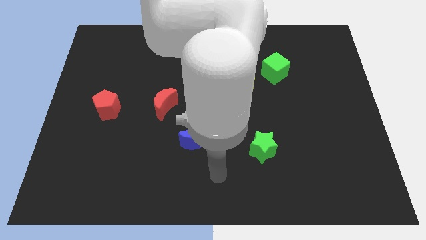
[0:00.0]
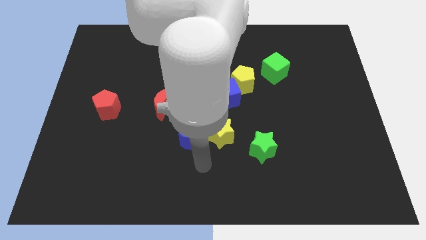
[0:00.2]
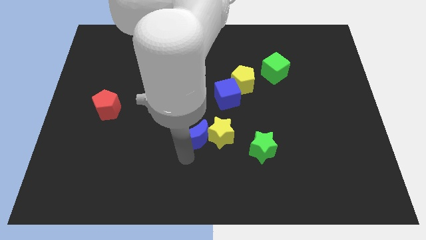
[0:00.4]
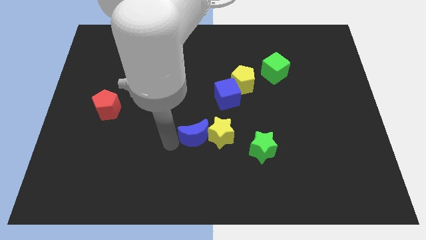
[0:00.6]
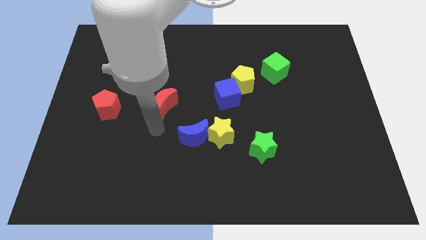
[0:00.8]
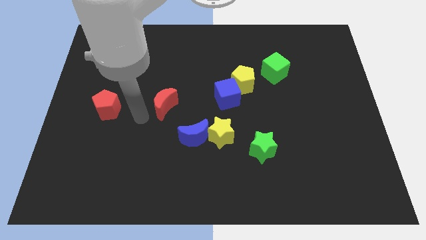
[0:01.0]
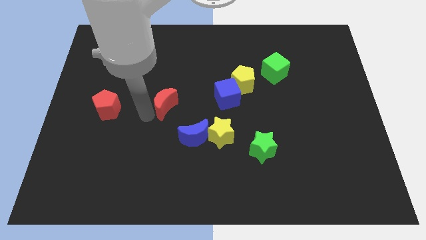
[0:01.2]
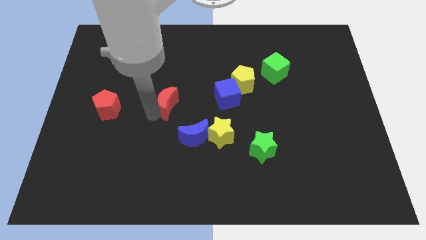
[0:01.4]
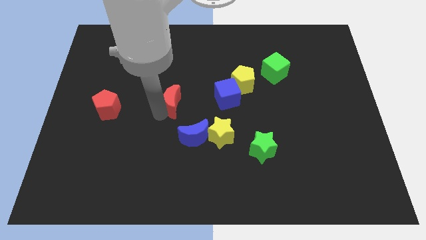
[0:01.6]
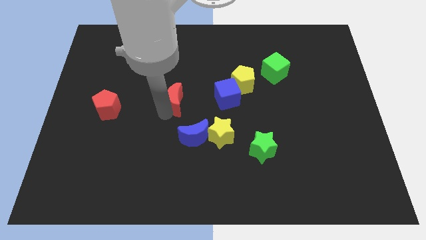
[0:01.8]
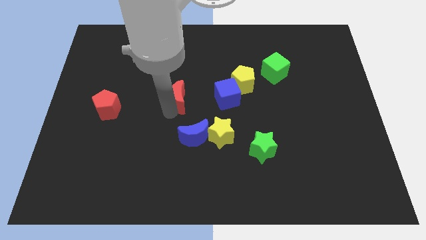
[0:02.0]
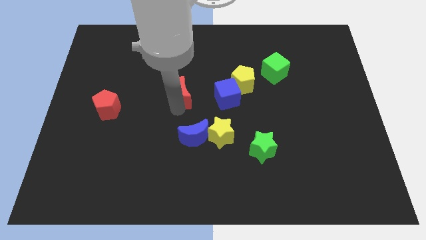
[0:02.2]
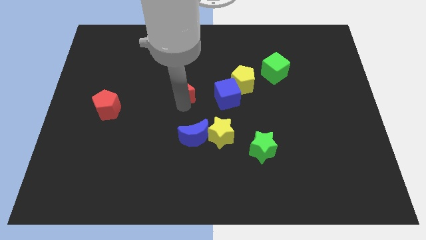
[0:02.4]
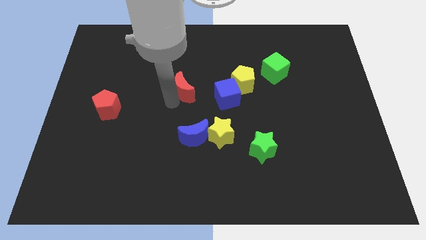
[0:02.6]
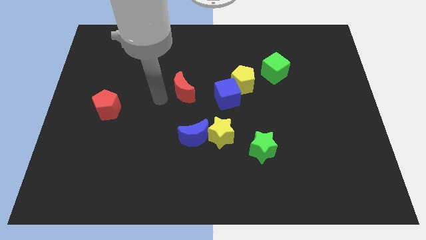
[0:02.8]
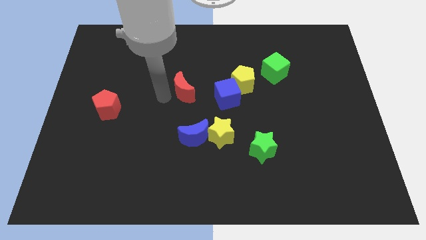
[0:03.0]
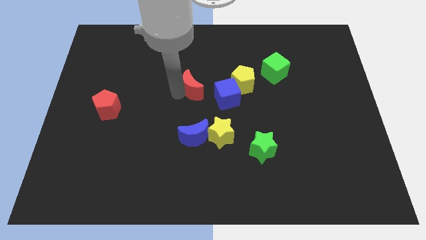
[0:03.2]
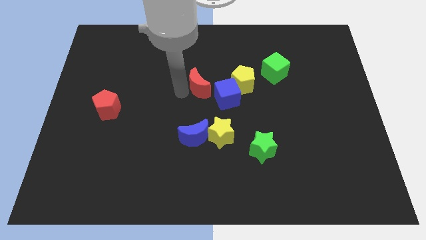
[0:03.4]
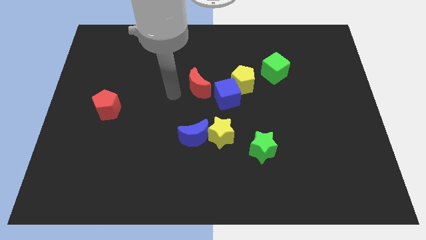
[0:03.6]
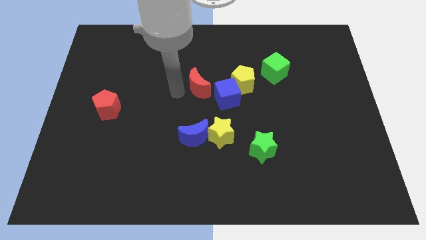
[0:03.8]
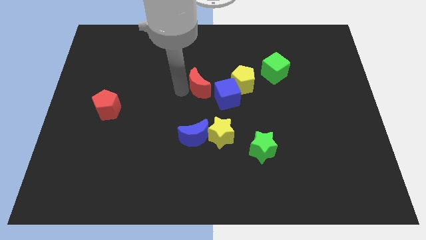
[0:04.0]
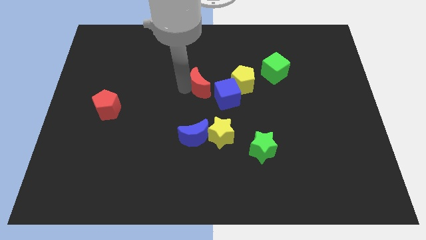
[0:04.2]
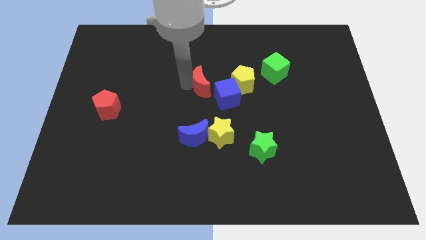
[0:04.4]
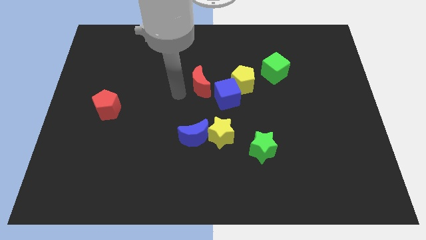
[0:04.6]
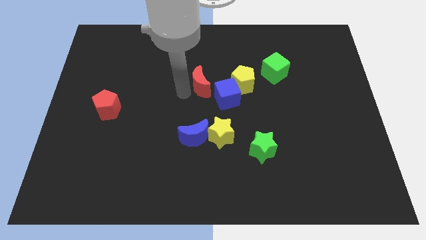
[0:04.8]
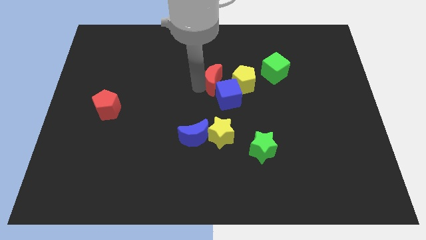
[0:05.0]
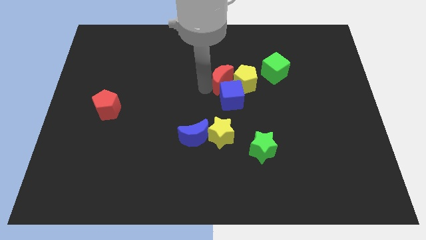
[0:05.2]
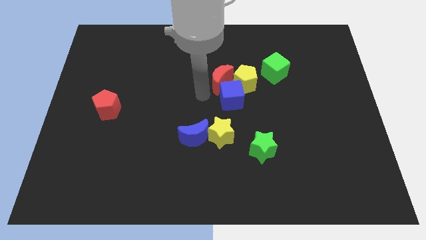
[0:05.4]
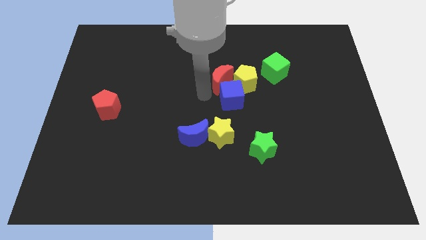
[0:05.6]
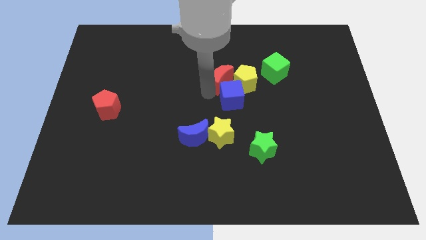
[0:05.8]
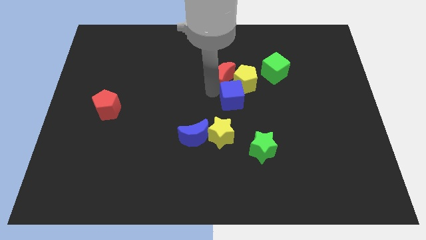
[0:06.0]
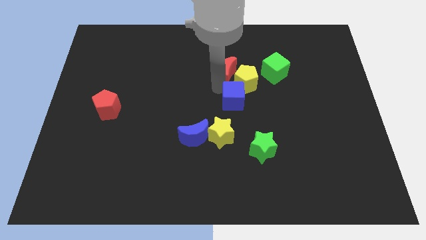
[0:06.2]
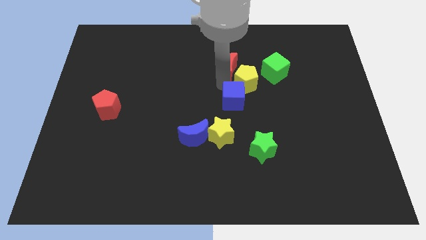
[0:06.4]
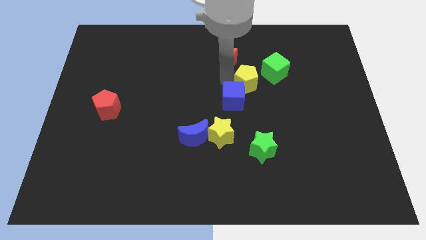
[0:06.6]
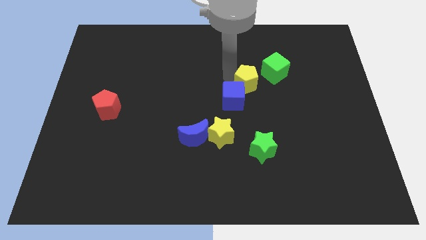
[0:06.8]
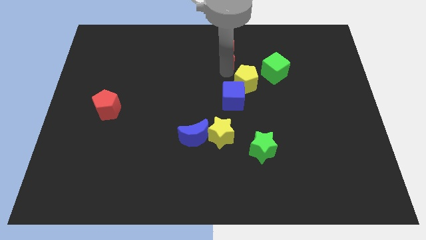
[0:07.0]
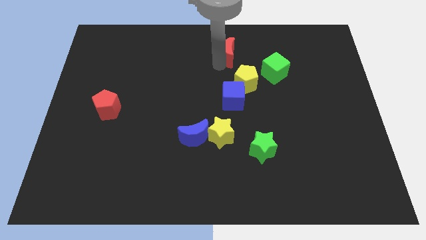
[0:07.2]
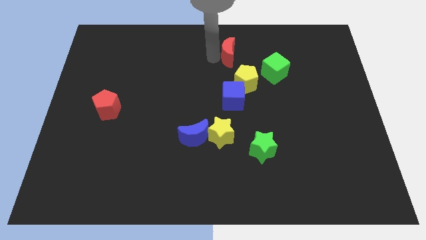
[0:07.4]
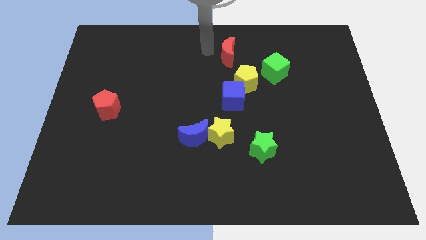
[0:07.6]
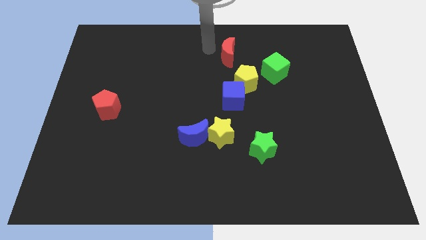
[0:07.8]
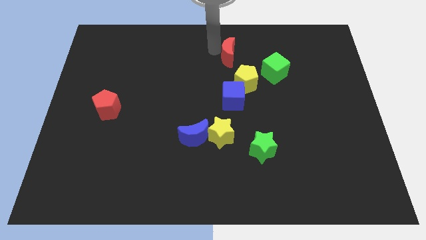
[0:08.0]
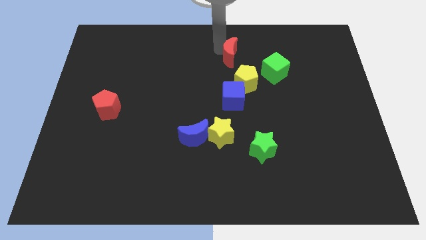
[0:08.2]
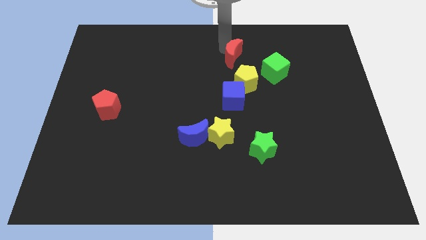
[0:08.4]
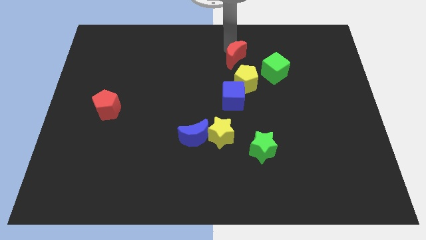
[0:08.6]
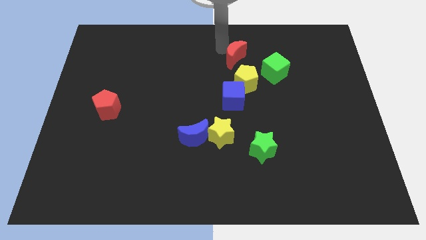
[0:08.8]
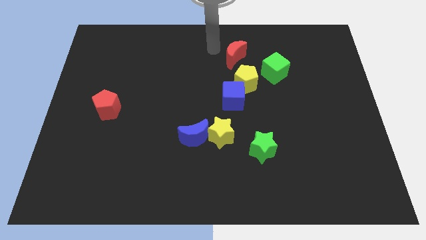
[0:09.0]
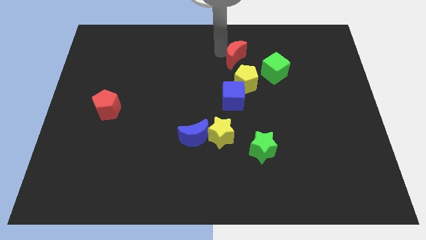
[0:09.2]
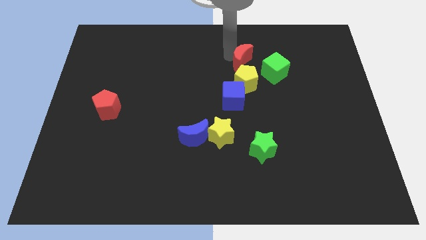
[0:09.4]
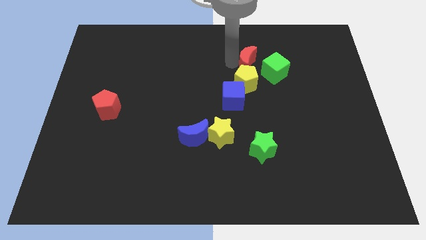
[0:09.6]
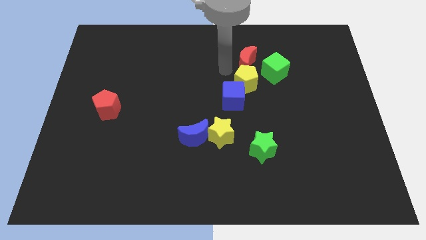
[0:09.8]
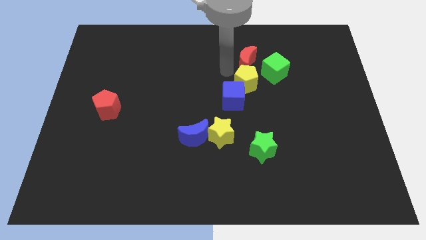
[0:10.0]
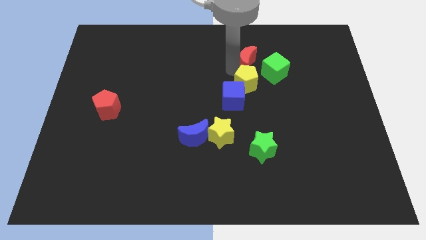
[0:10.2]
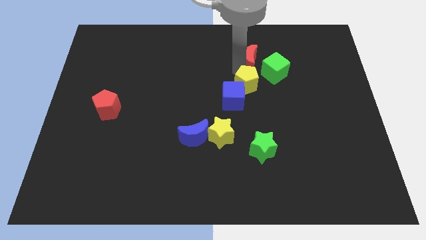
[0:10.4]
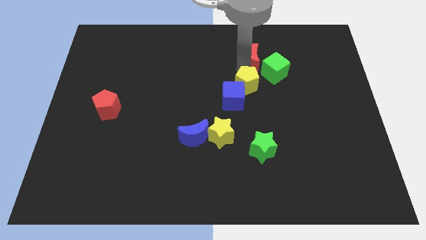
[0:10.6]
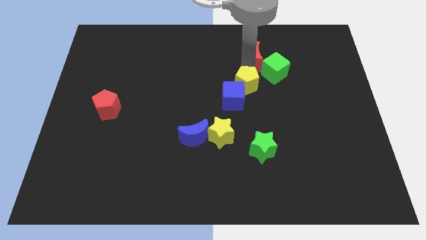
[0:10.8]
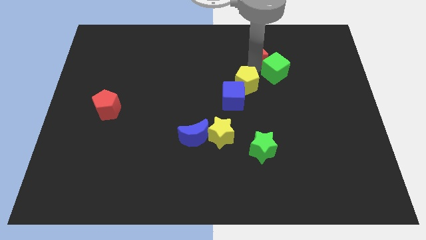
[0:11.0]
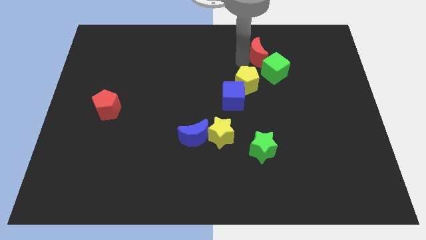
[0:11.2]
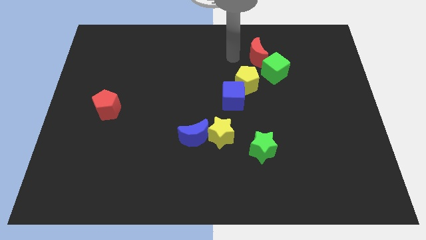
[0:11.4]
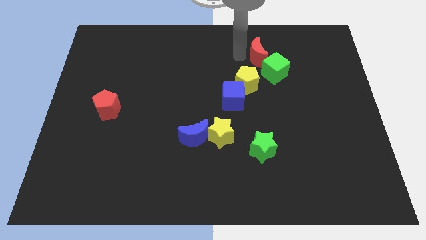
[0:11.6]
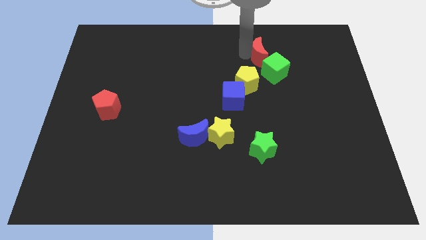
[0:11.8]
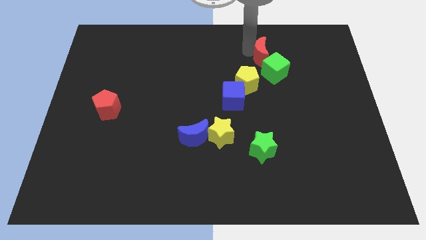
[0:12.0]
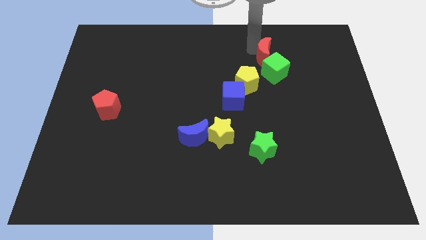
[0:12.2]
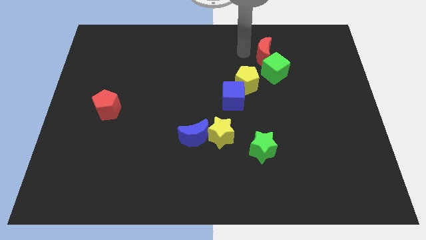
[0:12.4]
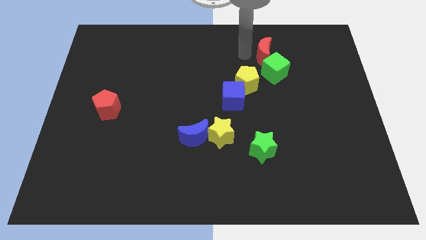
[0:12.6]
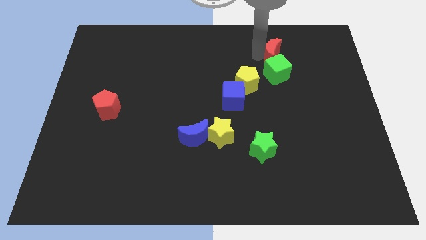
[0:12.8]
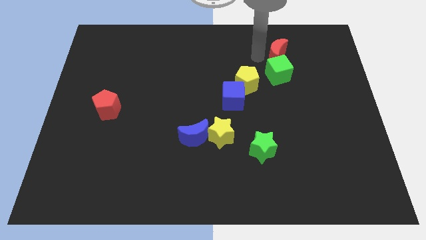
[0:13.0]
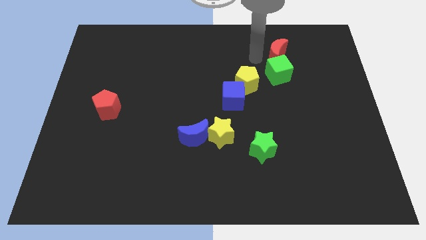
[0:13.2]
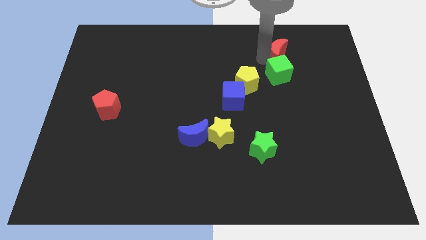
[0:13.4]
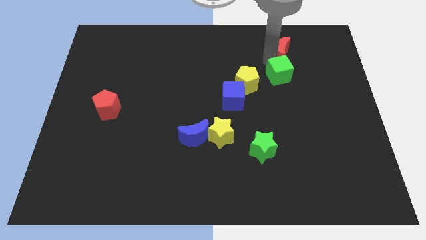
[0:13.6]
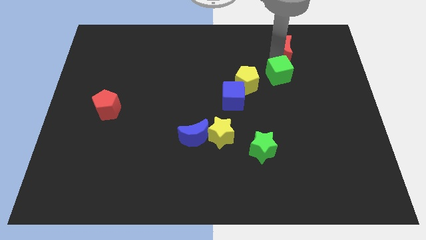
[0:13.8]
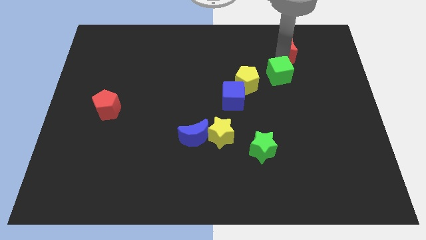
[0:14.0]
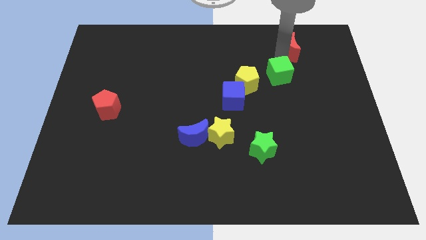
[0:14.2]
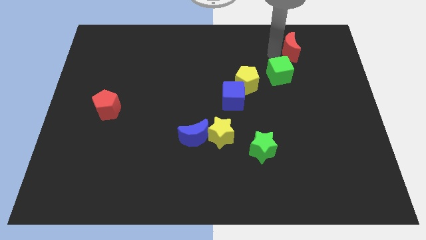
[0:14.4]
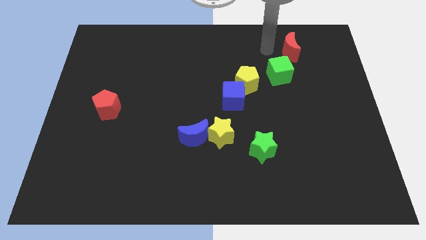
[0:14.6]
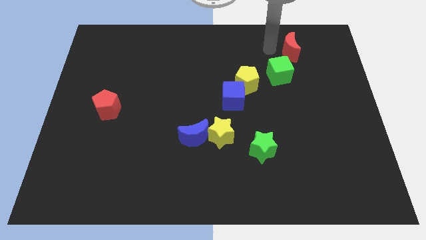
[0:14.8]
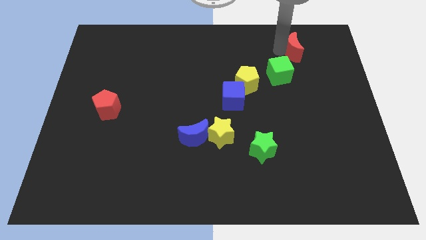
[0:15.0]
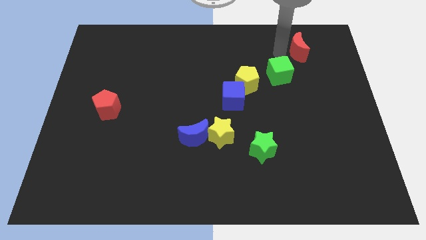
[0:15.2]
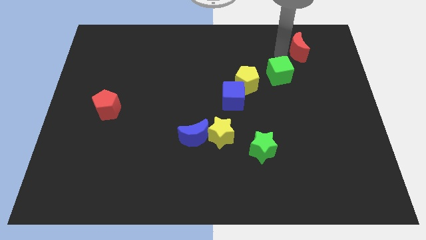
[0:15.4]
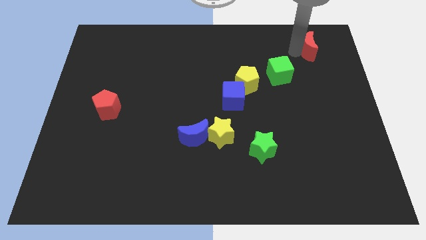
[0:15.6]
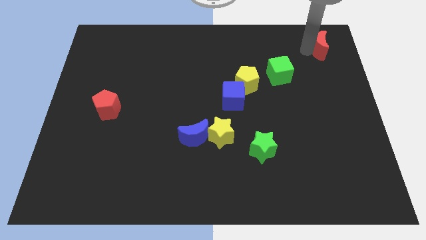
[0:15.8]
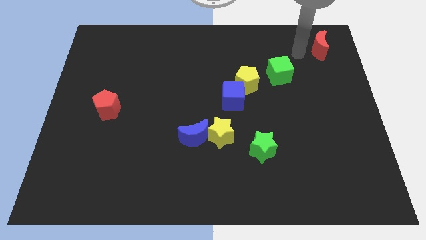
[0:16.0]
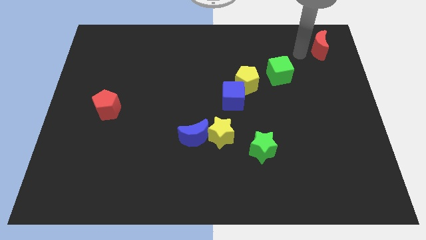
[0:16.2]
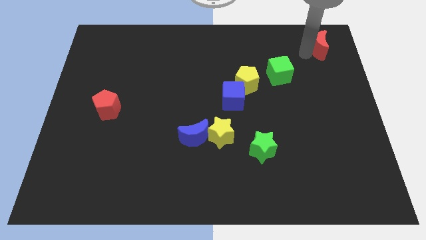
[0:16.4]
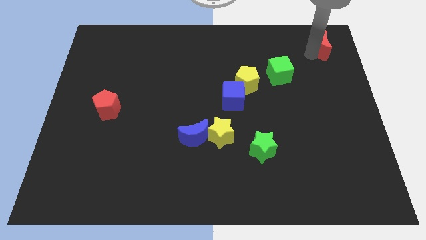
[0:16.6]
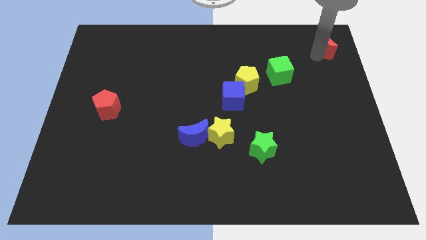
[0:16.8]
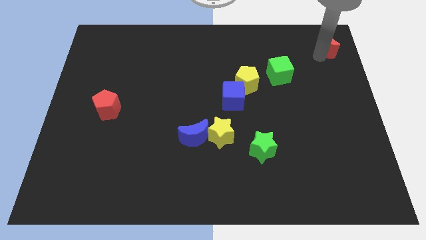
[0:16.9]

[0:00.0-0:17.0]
slide the red moon to the upper right corner

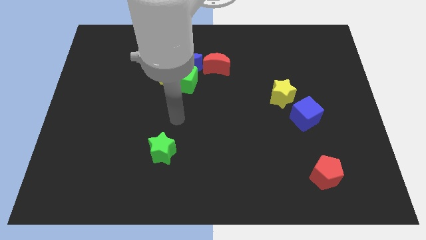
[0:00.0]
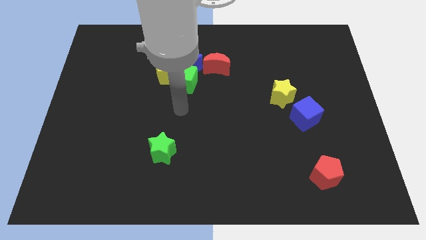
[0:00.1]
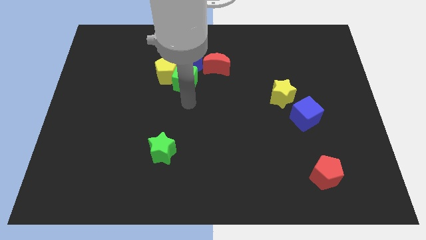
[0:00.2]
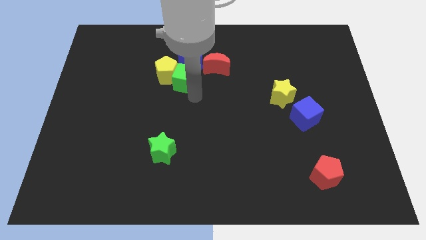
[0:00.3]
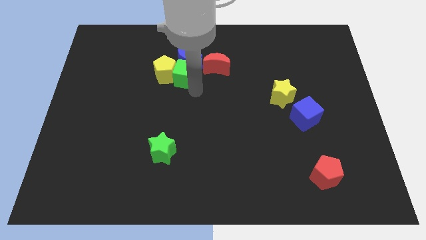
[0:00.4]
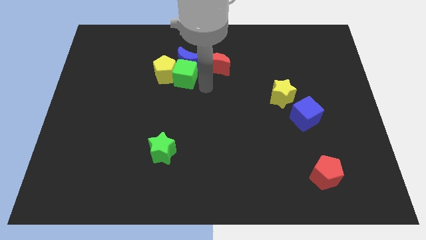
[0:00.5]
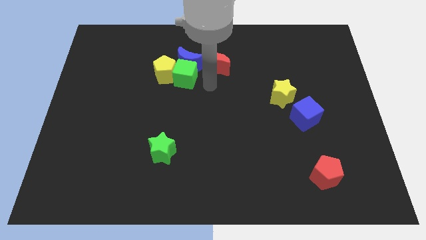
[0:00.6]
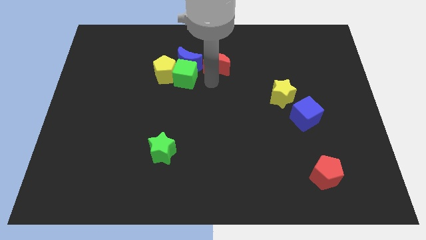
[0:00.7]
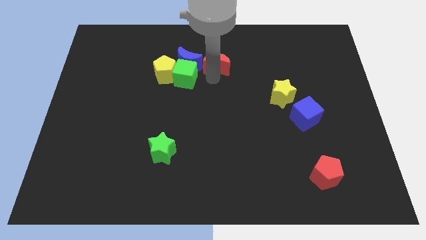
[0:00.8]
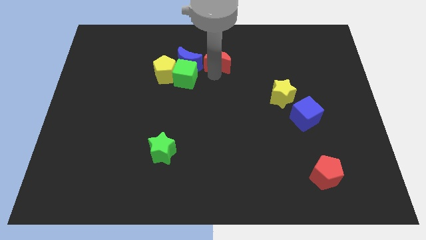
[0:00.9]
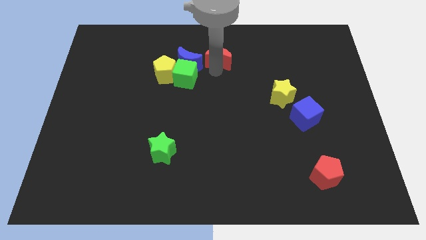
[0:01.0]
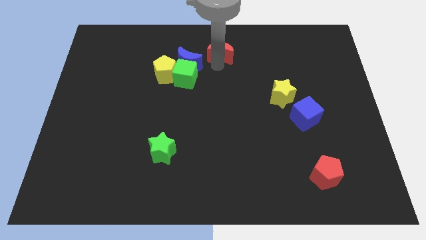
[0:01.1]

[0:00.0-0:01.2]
move the red moon to the top side
